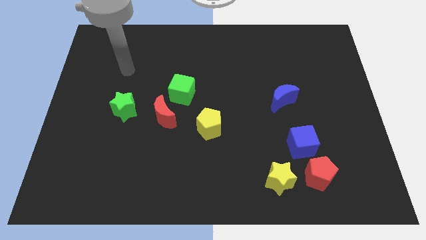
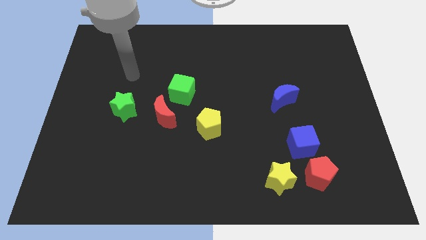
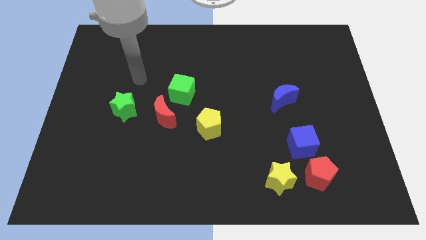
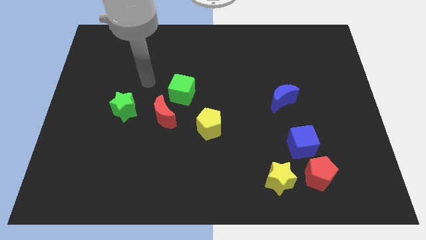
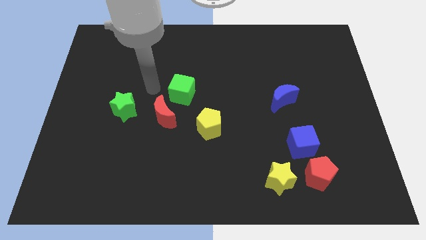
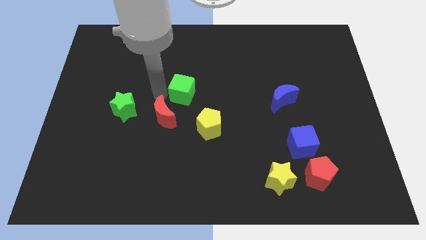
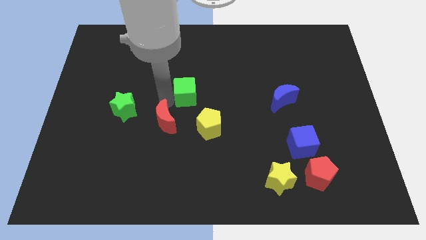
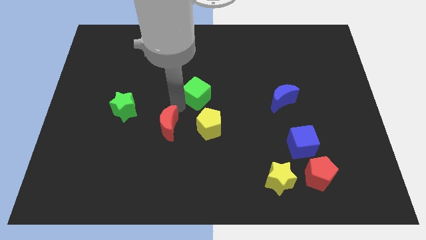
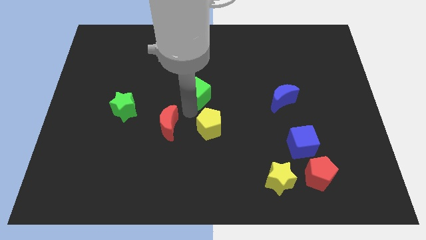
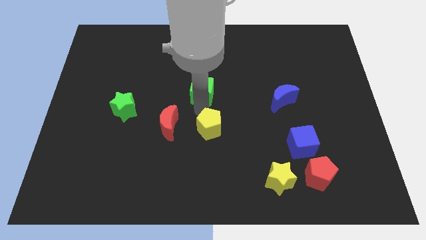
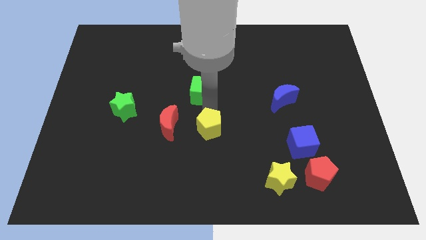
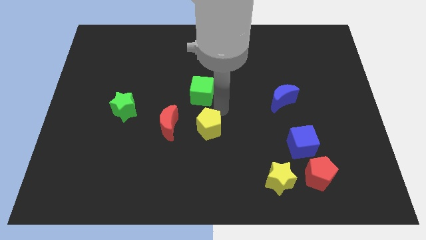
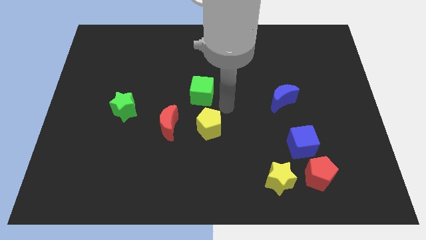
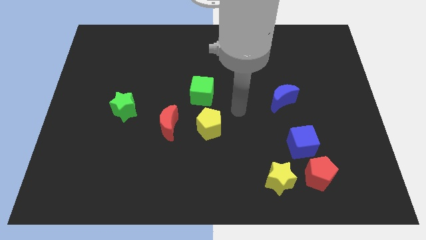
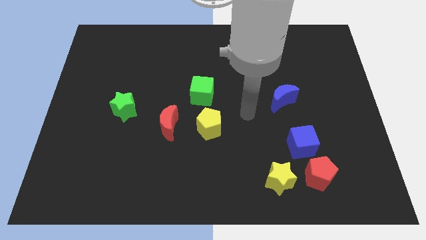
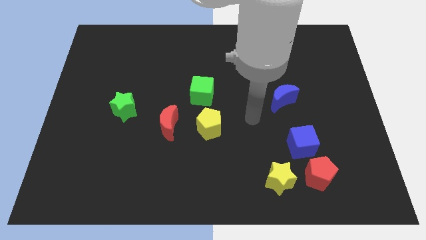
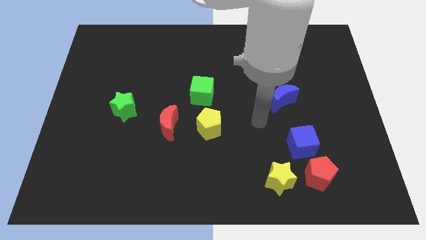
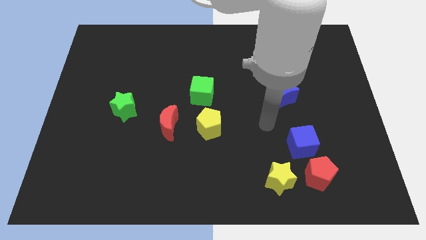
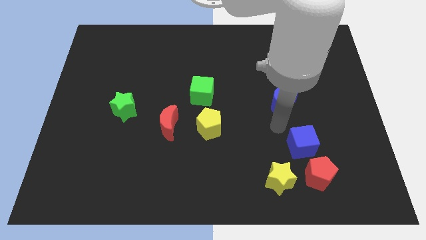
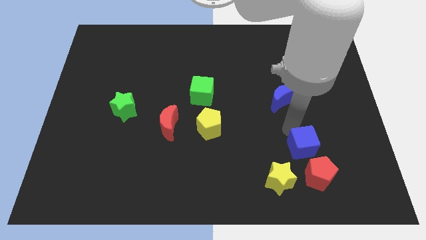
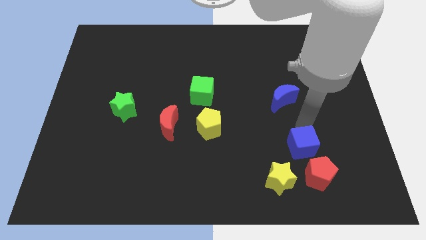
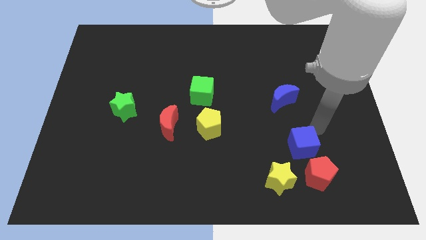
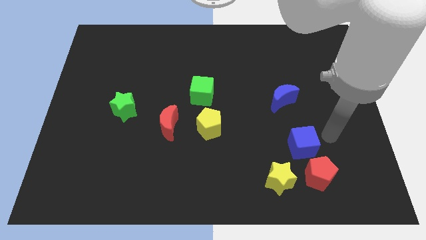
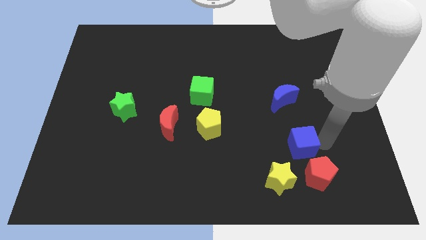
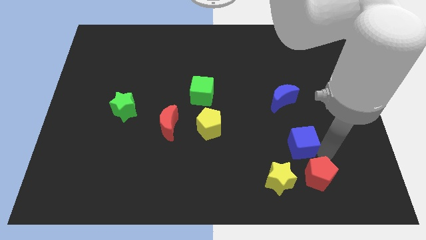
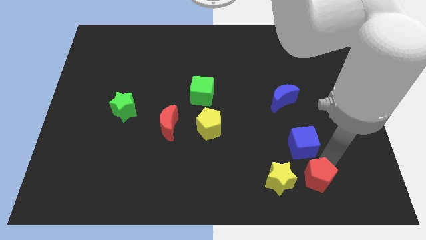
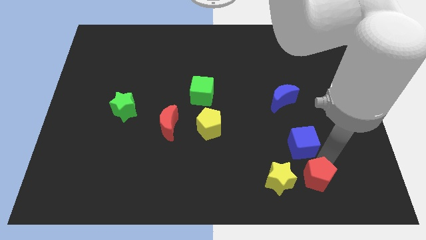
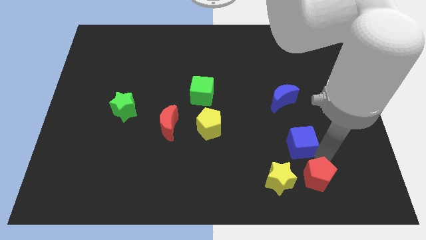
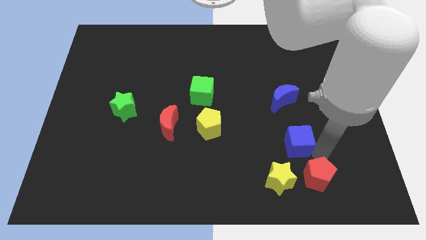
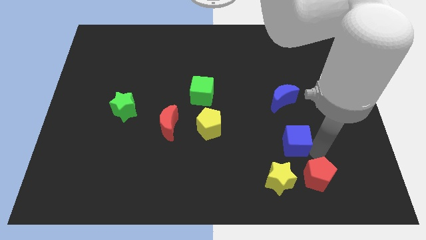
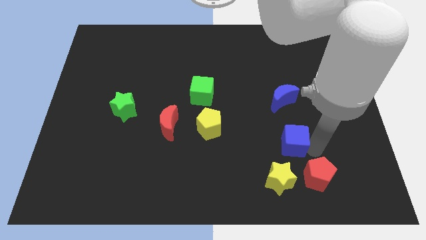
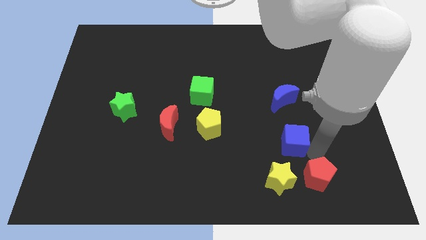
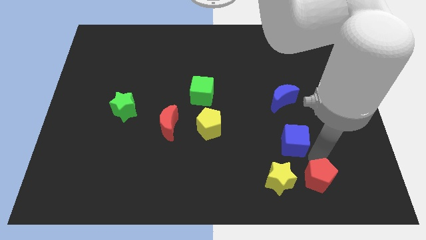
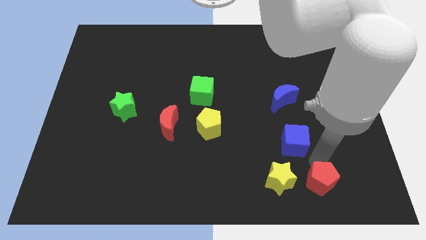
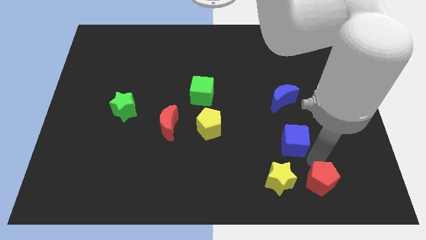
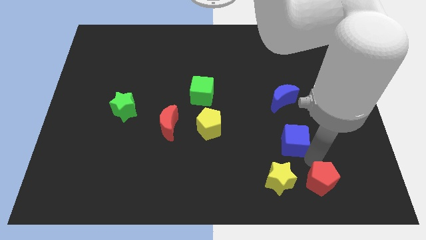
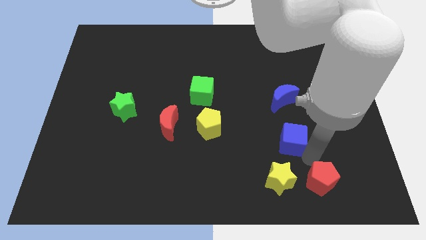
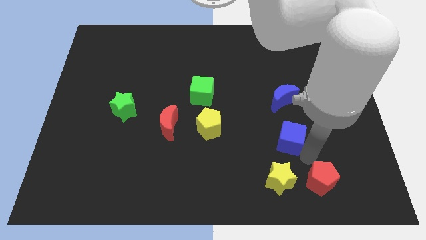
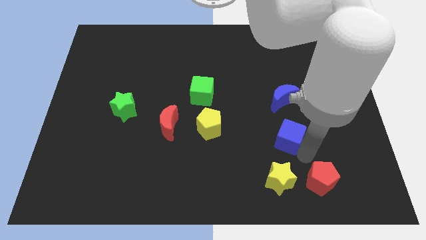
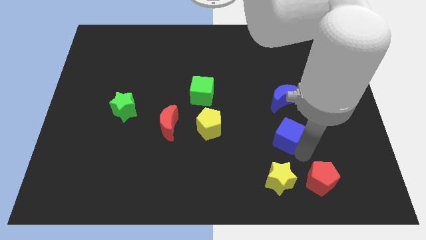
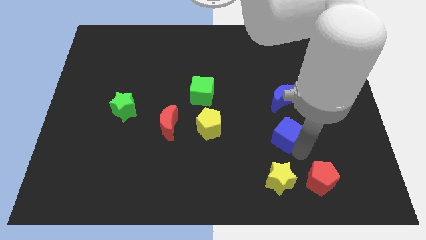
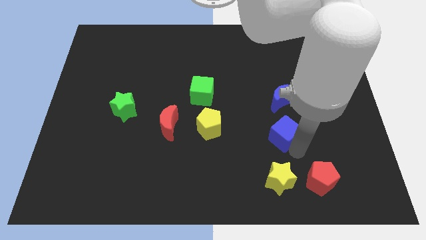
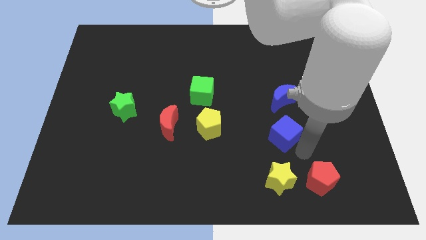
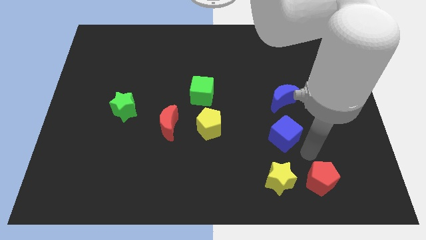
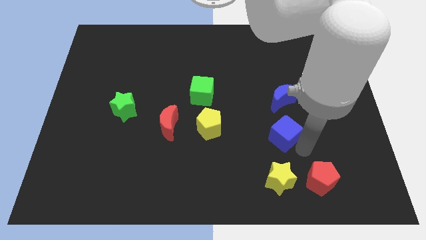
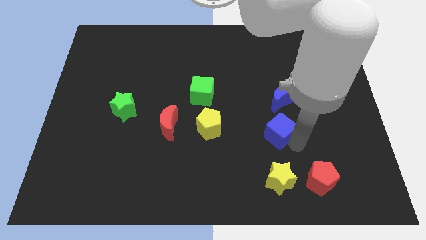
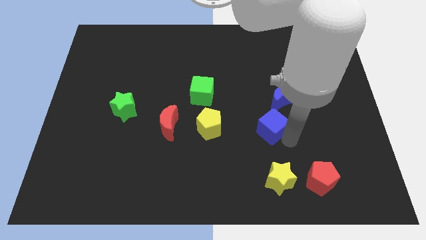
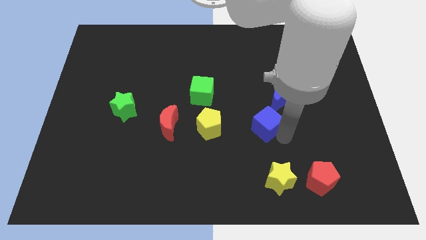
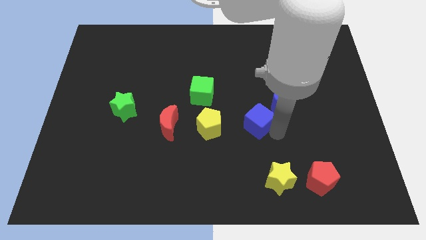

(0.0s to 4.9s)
put the blue cube to the center

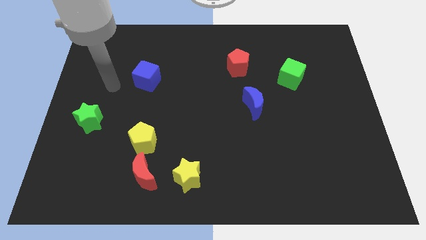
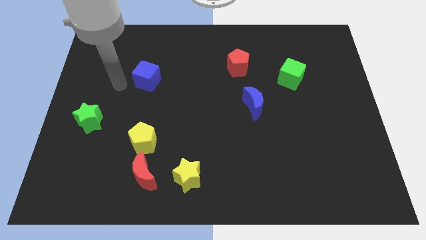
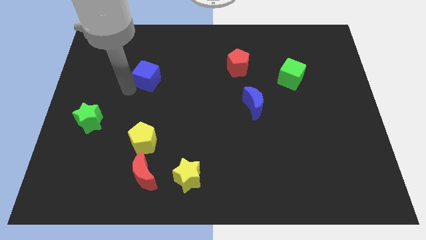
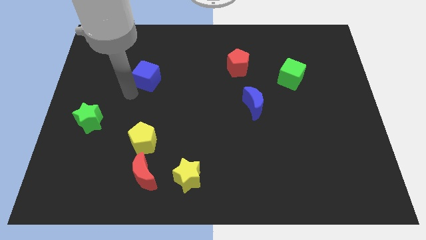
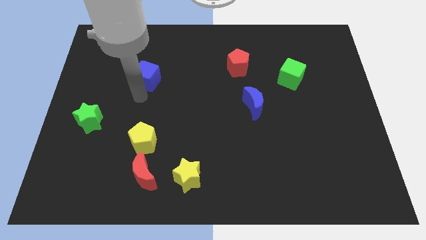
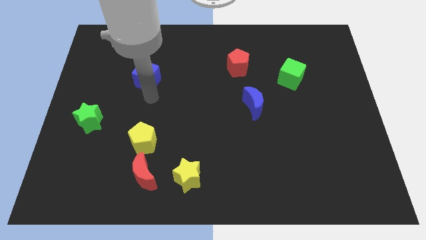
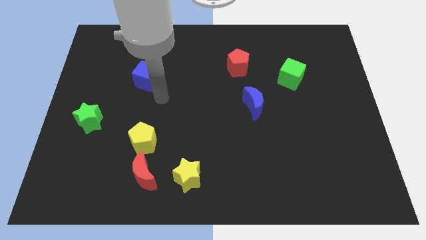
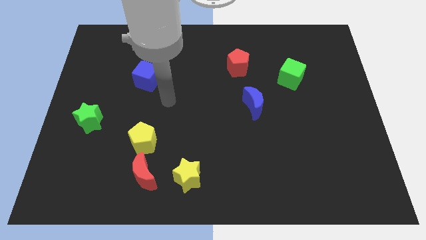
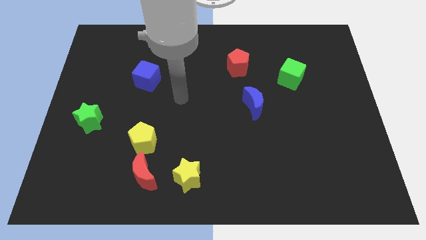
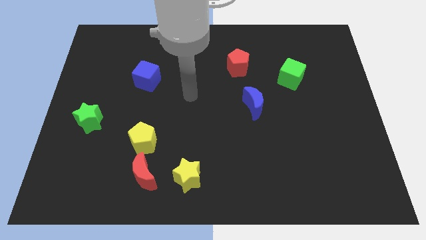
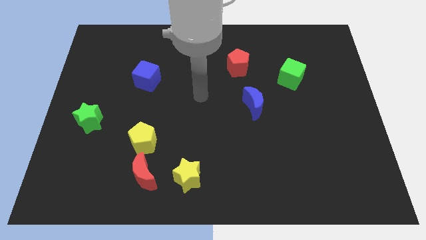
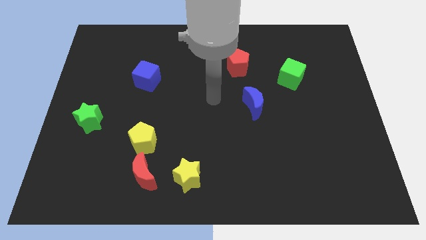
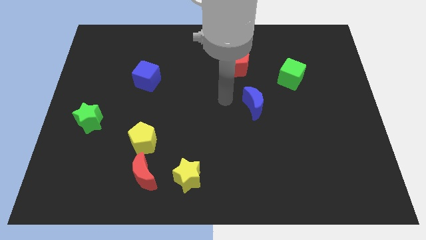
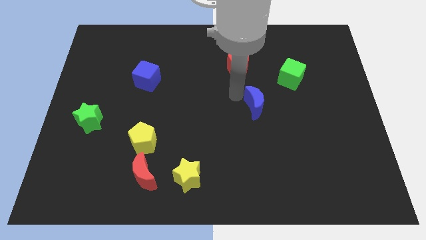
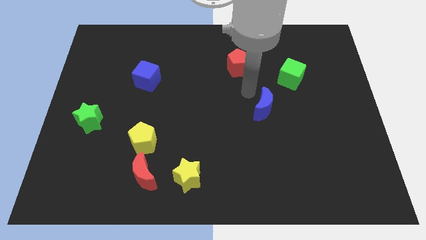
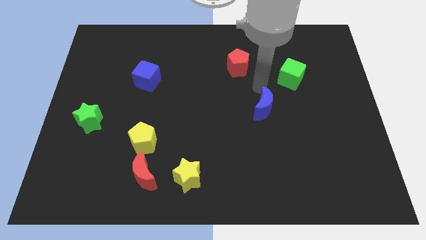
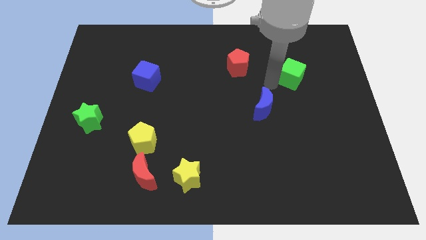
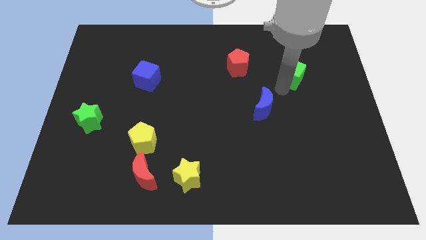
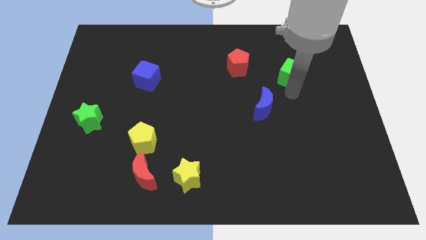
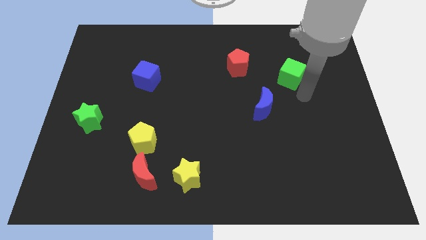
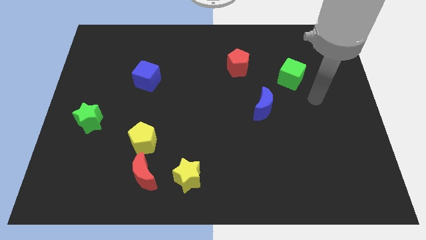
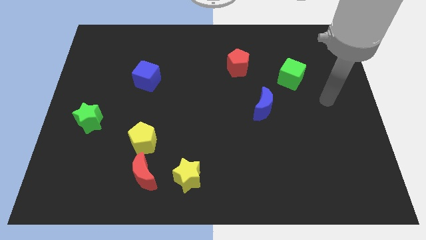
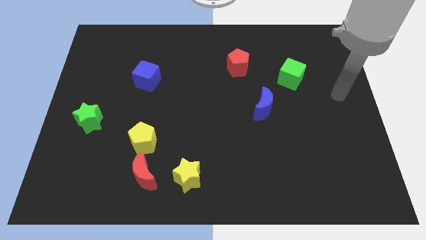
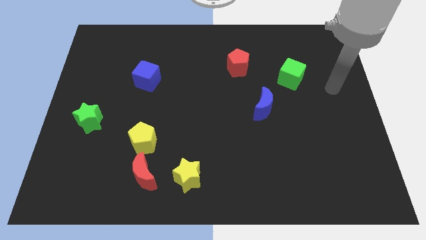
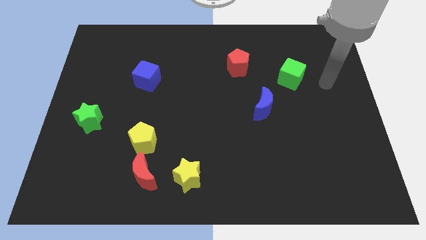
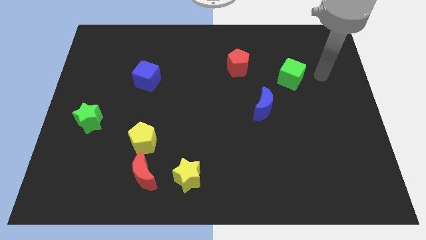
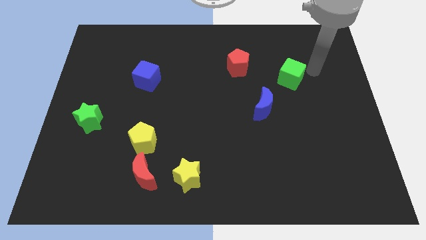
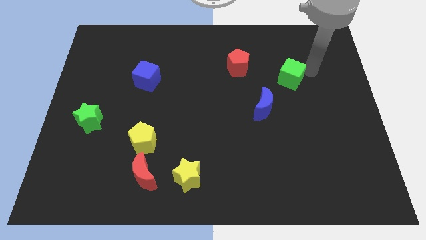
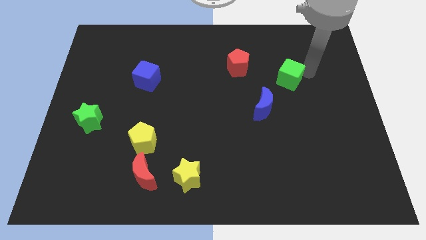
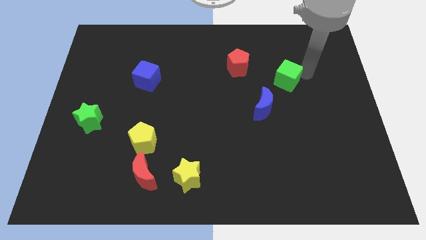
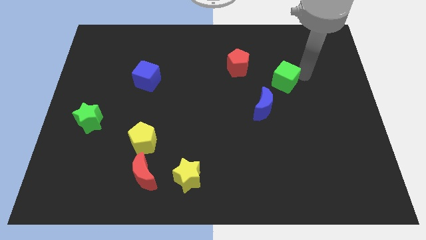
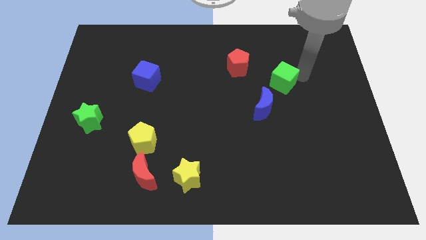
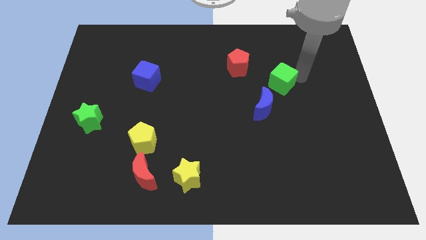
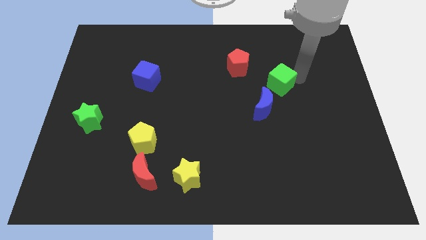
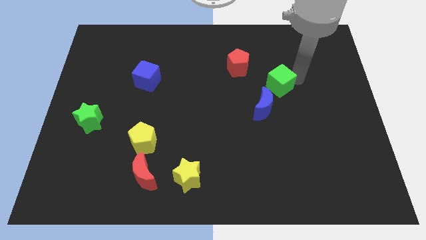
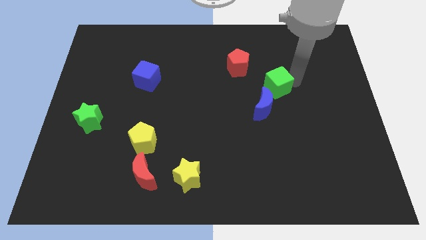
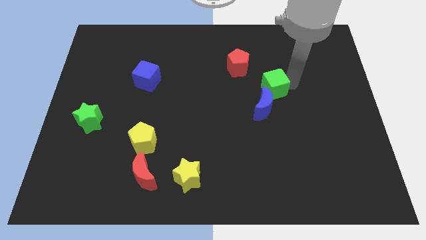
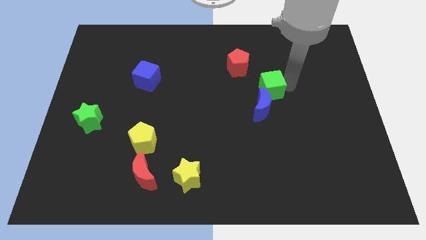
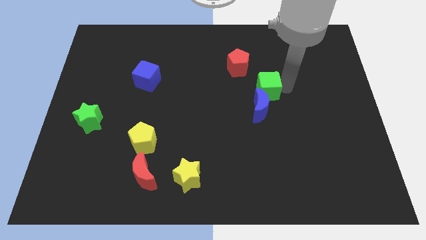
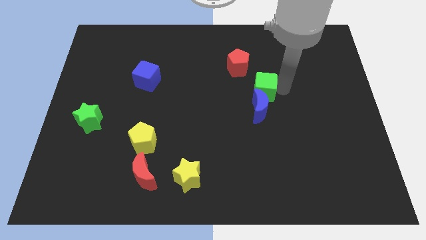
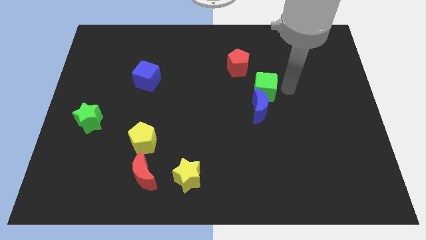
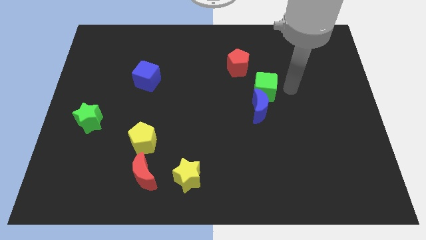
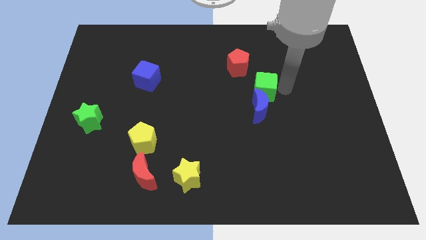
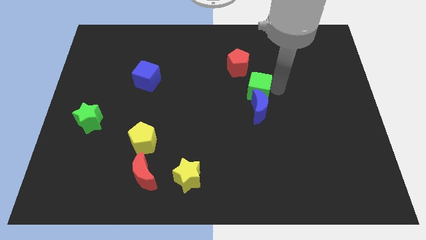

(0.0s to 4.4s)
move the green cube to the middle
